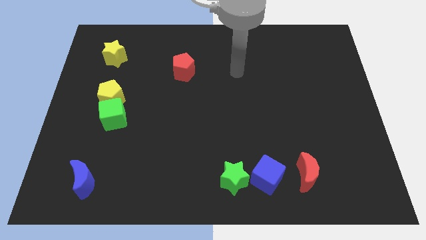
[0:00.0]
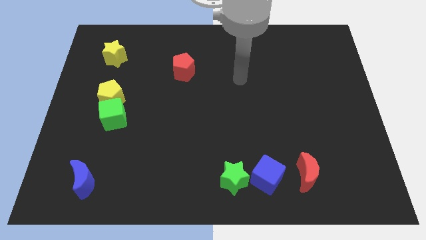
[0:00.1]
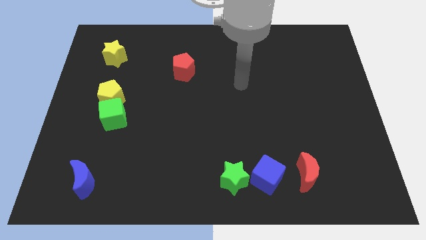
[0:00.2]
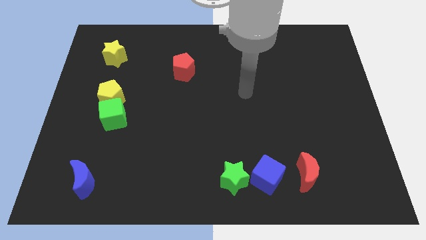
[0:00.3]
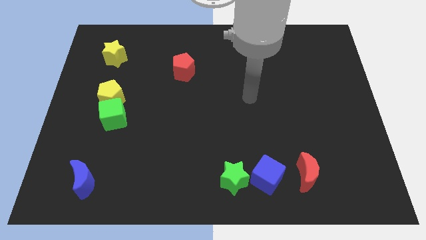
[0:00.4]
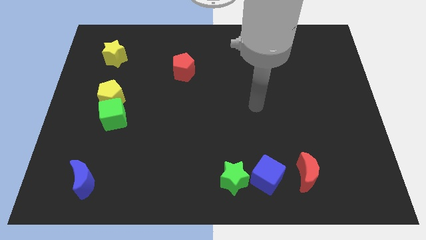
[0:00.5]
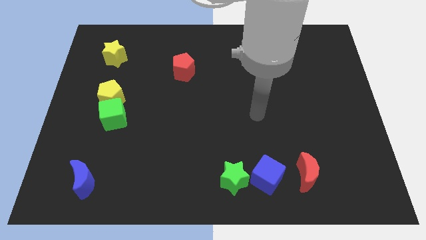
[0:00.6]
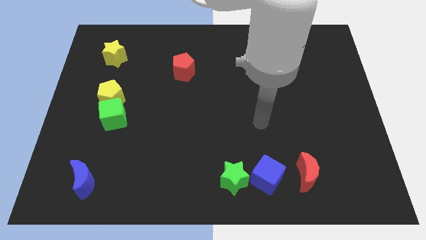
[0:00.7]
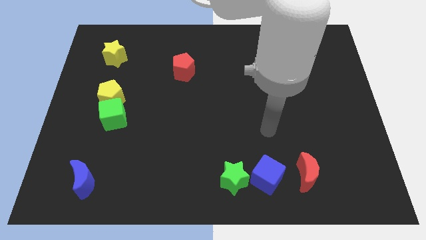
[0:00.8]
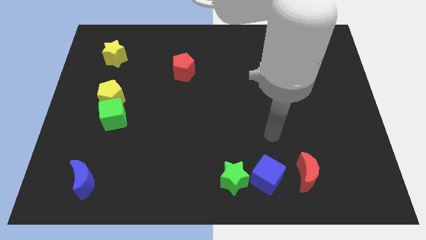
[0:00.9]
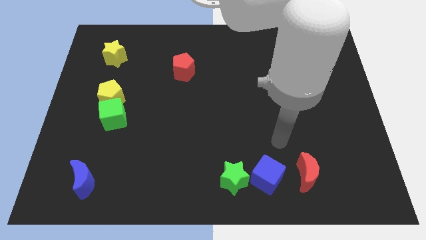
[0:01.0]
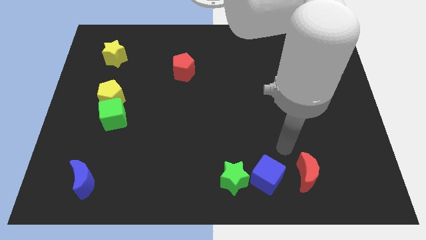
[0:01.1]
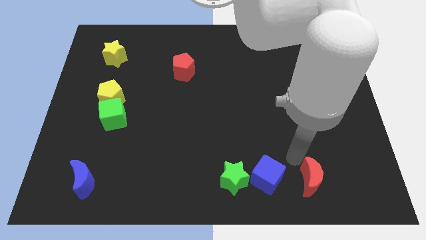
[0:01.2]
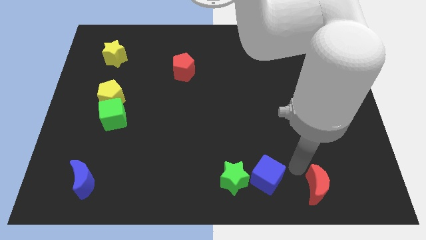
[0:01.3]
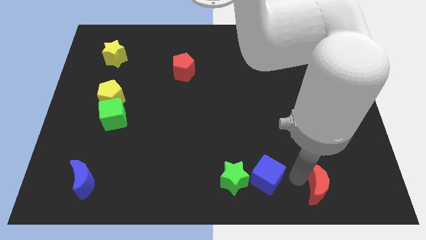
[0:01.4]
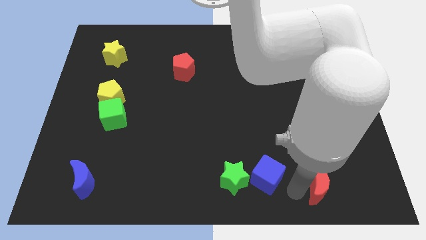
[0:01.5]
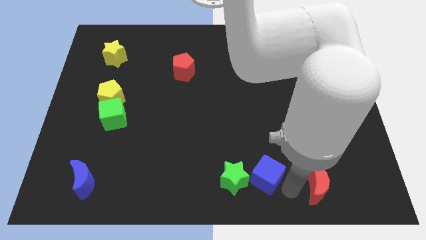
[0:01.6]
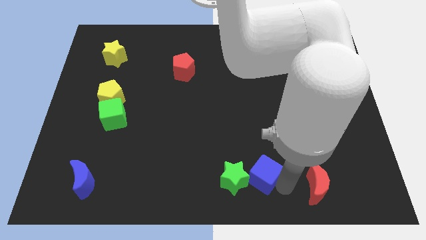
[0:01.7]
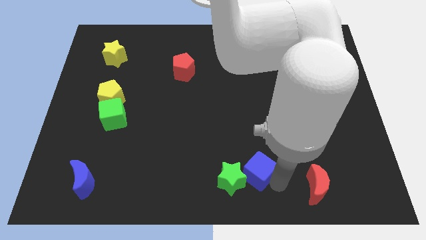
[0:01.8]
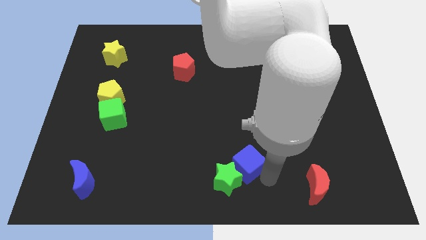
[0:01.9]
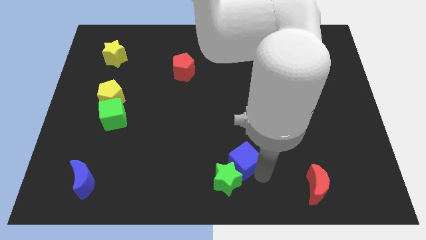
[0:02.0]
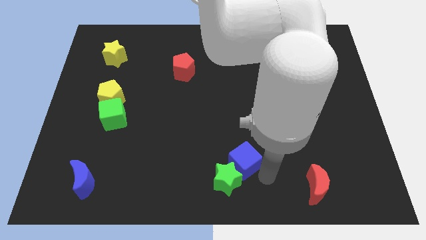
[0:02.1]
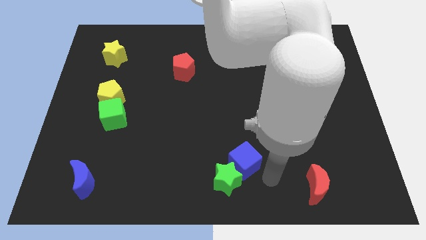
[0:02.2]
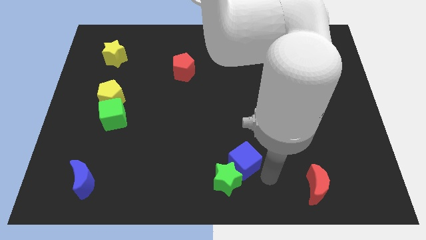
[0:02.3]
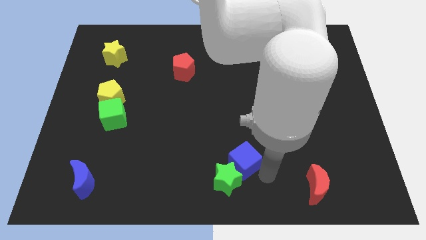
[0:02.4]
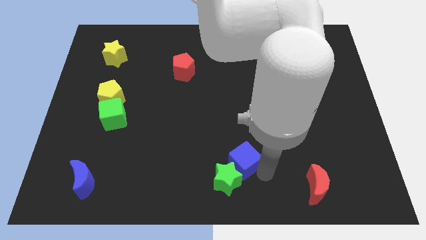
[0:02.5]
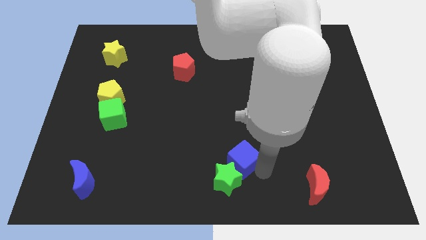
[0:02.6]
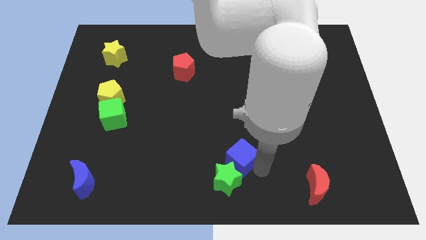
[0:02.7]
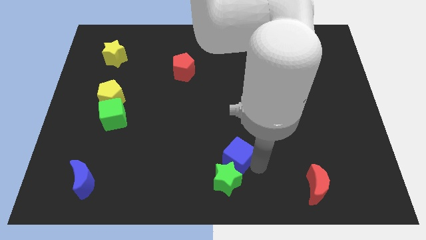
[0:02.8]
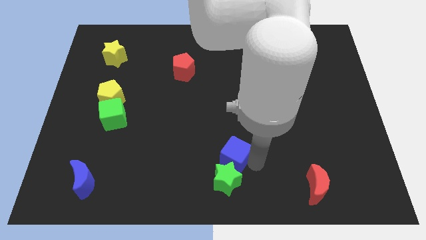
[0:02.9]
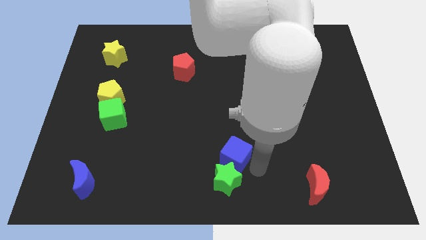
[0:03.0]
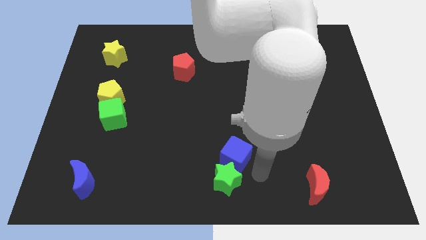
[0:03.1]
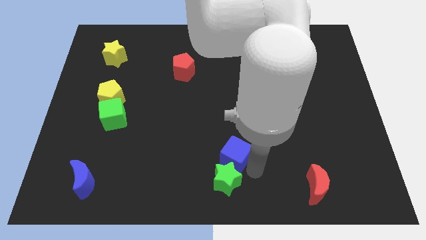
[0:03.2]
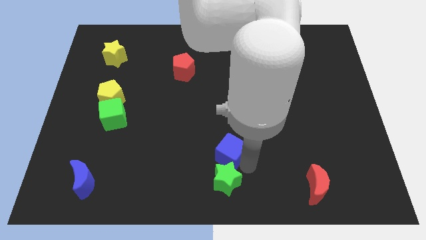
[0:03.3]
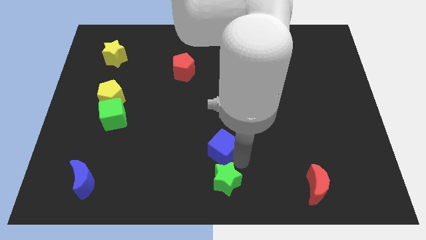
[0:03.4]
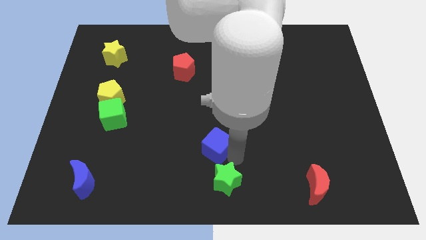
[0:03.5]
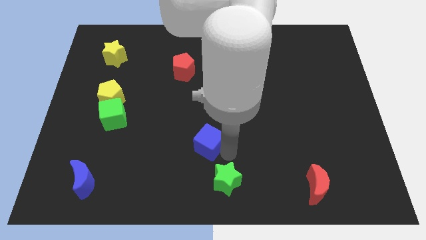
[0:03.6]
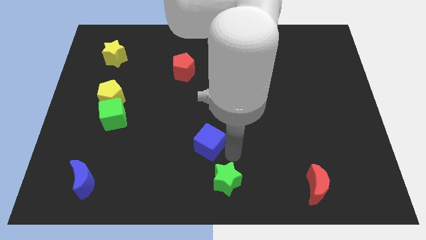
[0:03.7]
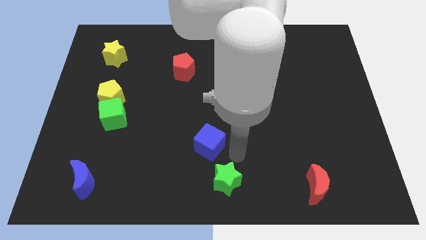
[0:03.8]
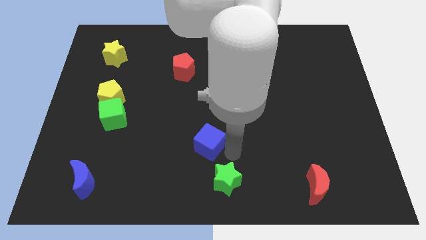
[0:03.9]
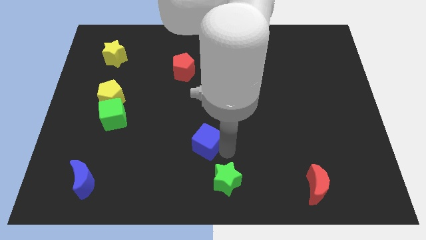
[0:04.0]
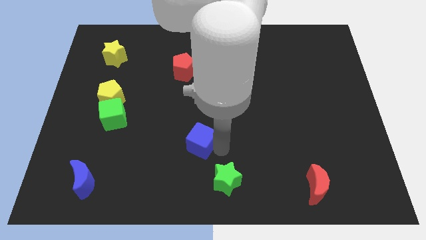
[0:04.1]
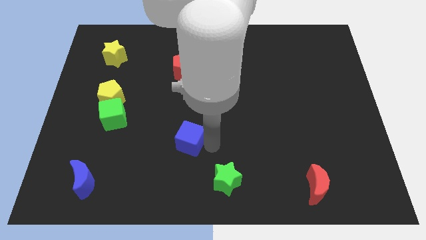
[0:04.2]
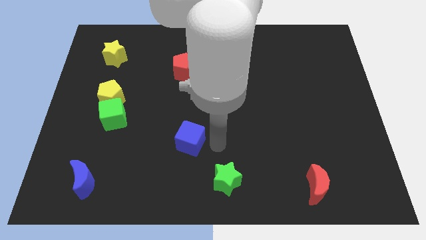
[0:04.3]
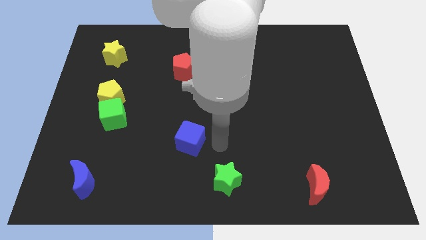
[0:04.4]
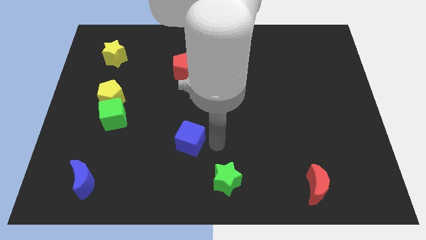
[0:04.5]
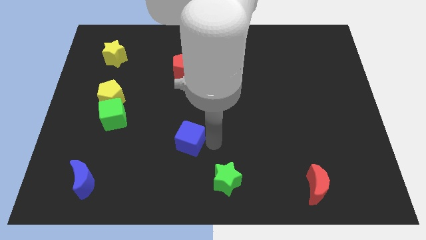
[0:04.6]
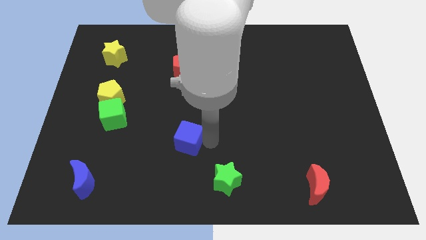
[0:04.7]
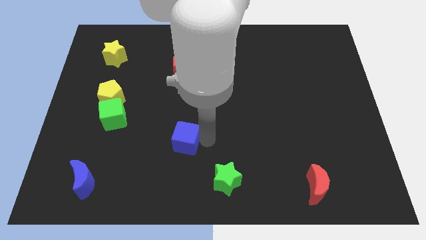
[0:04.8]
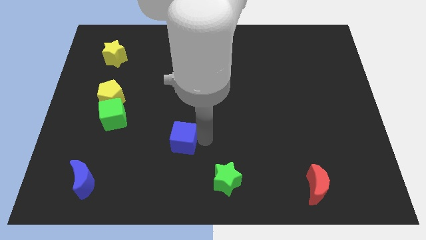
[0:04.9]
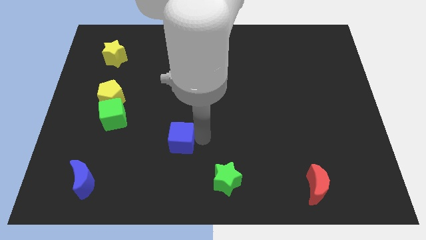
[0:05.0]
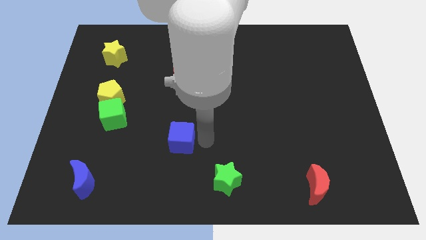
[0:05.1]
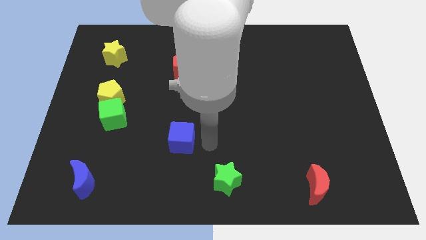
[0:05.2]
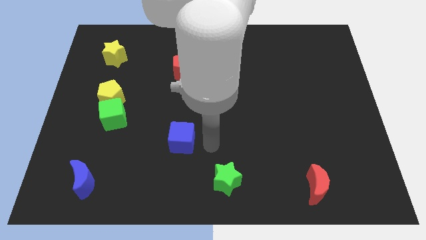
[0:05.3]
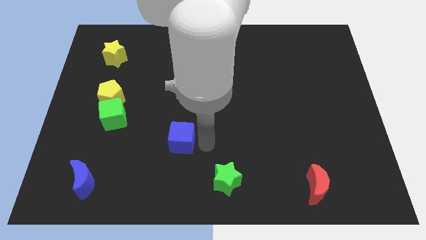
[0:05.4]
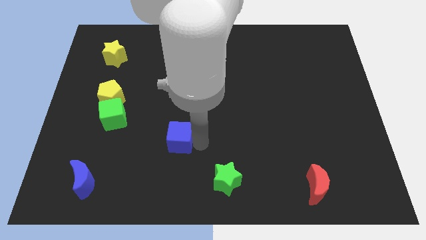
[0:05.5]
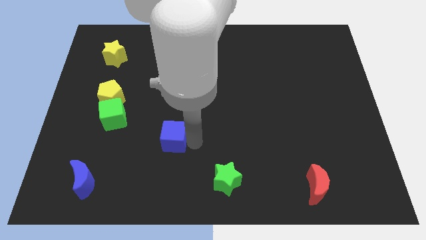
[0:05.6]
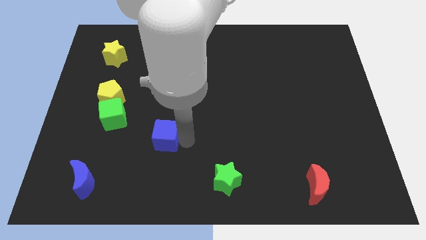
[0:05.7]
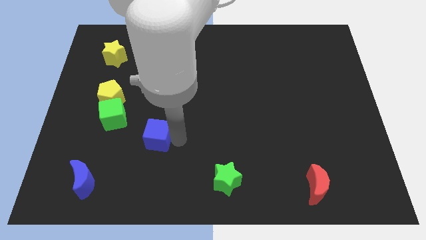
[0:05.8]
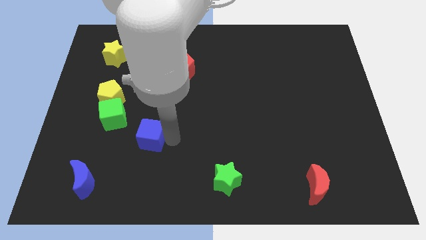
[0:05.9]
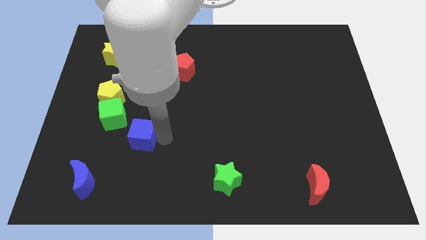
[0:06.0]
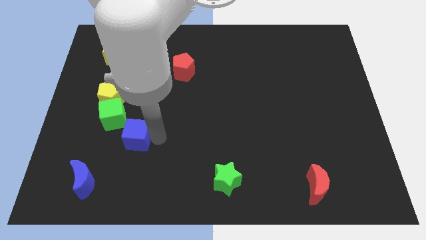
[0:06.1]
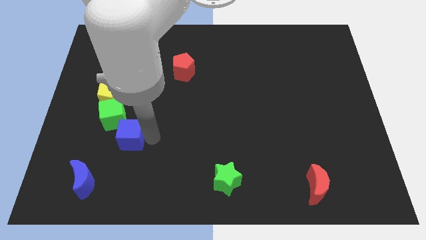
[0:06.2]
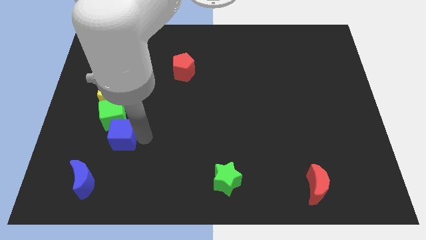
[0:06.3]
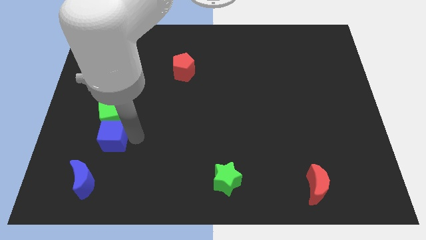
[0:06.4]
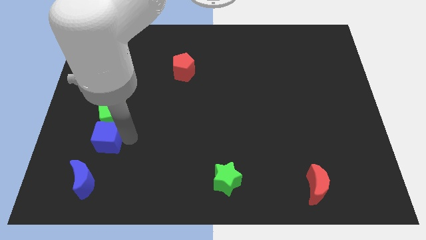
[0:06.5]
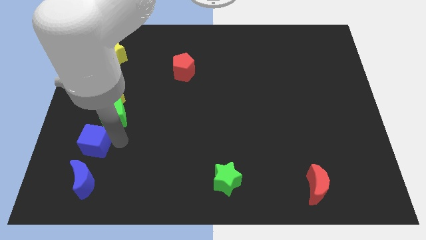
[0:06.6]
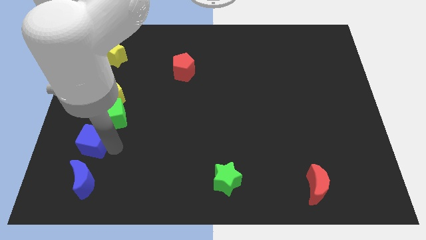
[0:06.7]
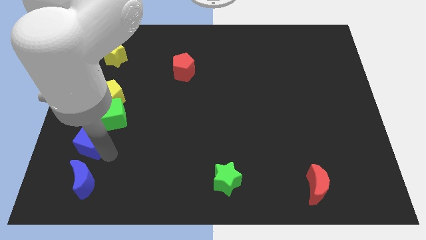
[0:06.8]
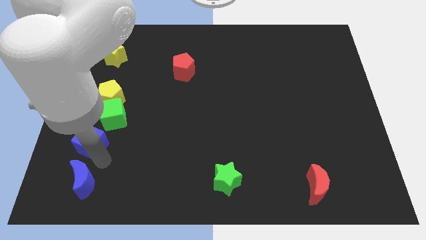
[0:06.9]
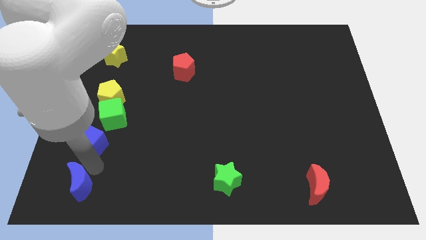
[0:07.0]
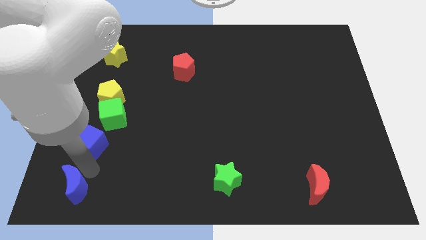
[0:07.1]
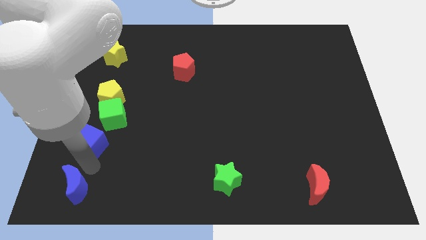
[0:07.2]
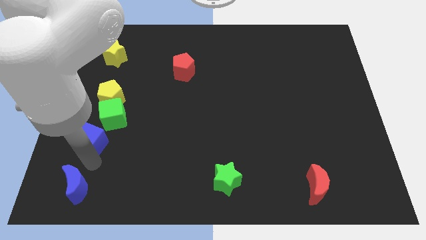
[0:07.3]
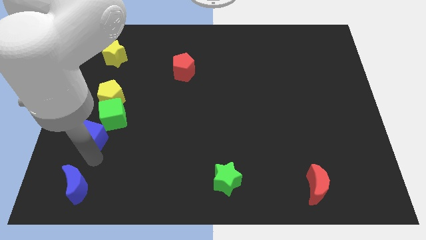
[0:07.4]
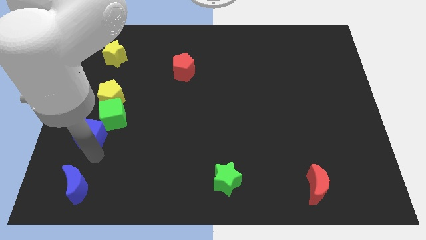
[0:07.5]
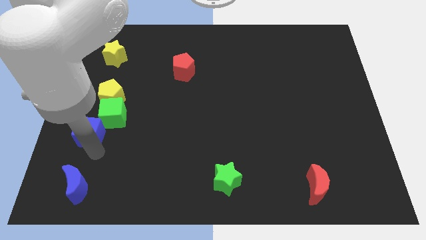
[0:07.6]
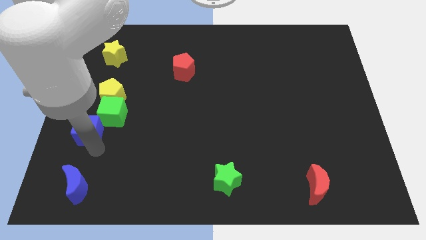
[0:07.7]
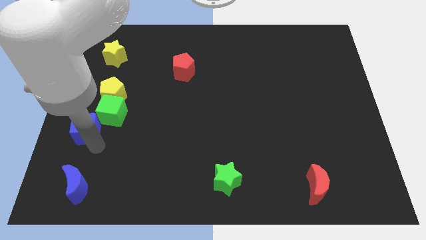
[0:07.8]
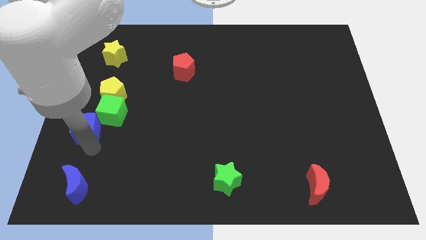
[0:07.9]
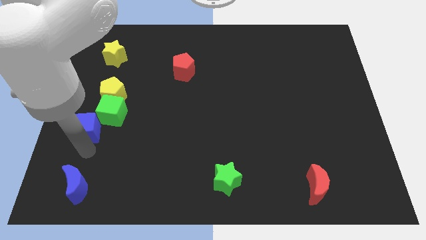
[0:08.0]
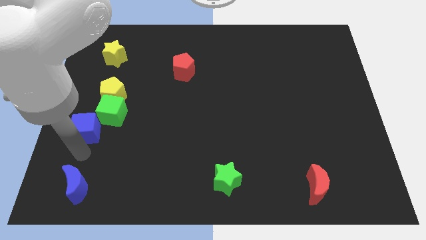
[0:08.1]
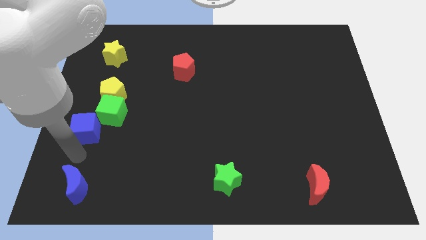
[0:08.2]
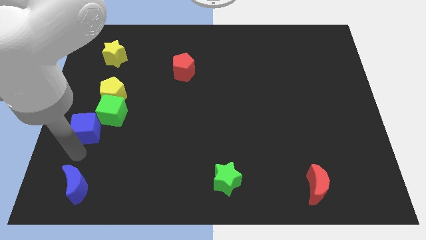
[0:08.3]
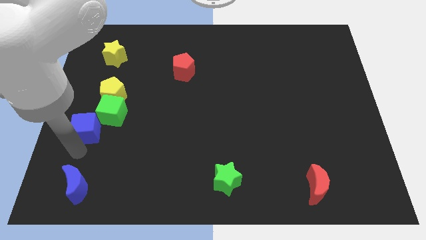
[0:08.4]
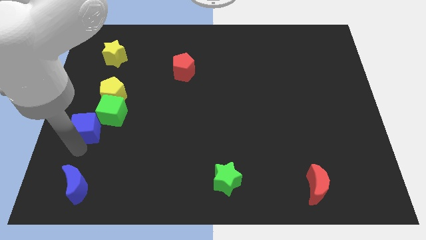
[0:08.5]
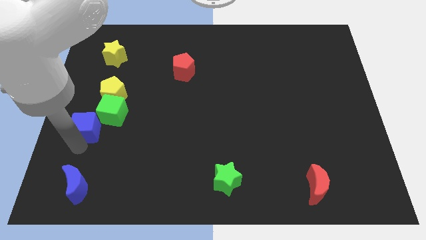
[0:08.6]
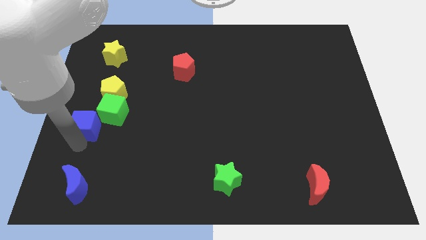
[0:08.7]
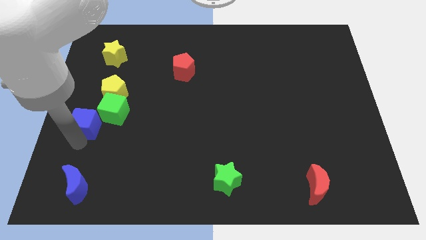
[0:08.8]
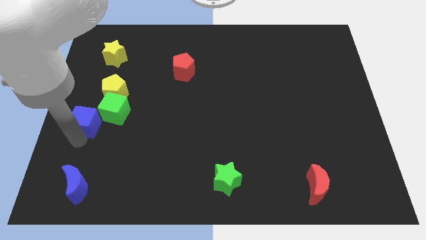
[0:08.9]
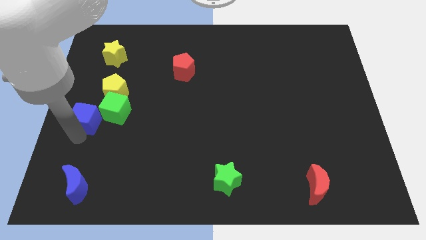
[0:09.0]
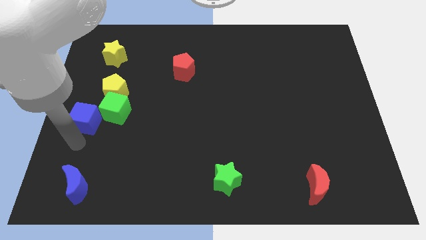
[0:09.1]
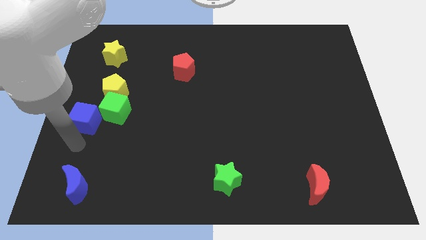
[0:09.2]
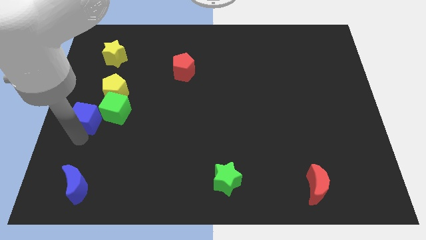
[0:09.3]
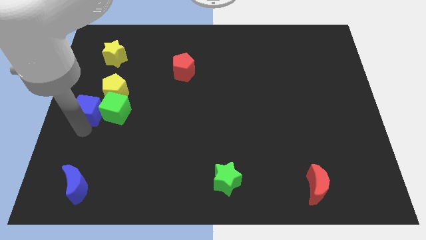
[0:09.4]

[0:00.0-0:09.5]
put the blue cube to the top left side of the green cube
